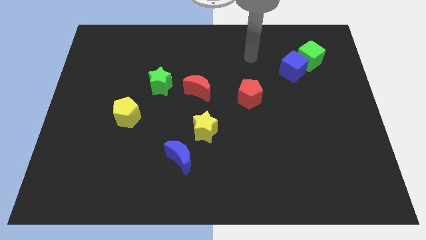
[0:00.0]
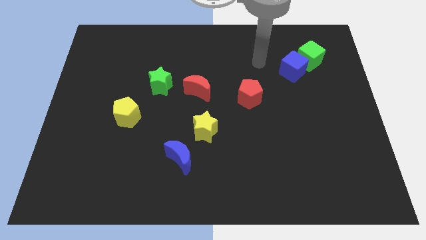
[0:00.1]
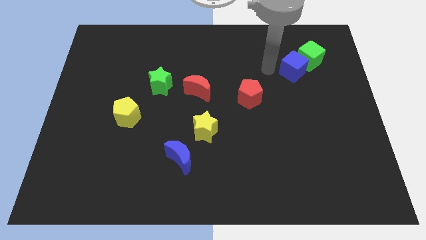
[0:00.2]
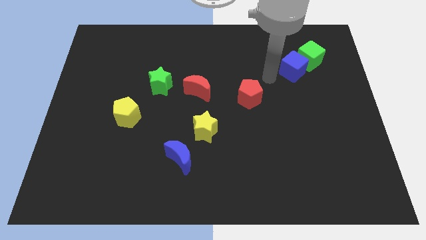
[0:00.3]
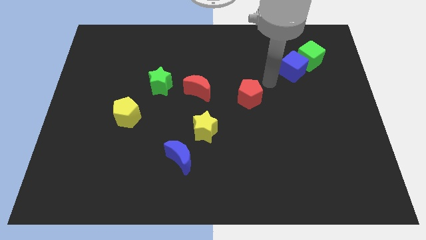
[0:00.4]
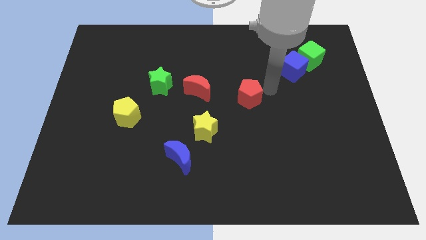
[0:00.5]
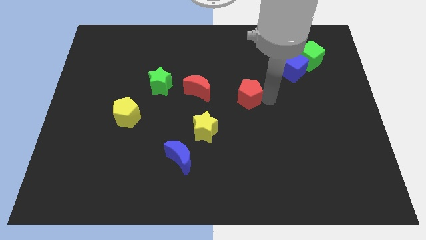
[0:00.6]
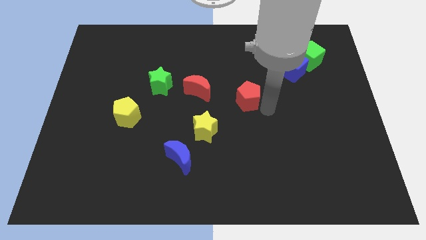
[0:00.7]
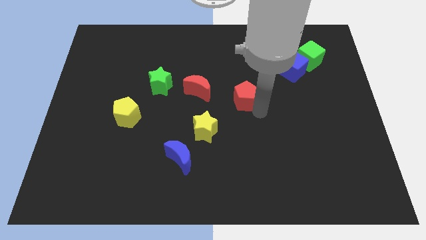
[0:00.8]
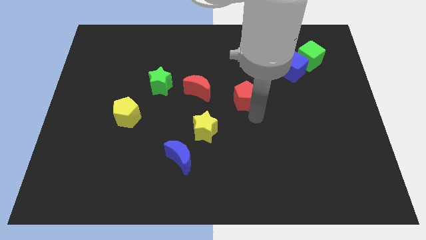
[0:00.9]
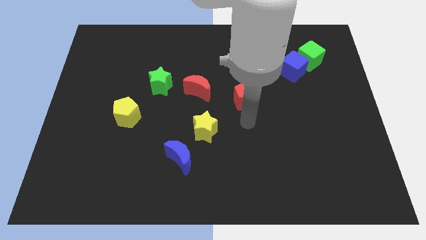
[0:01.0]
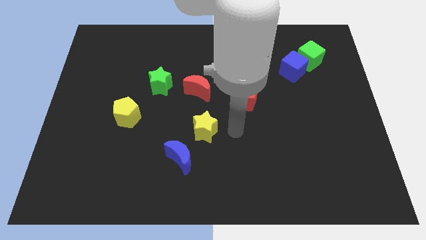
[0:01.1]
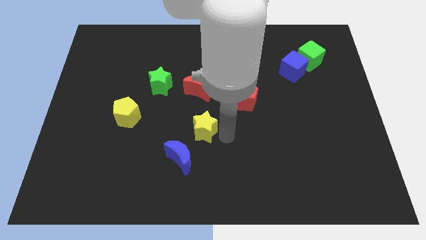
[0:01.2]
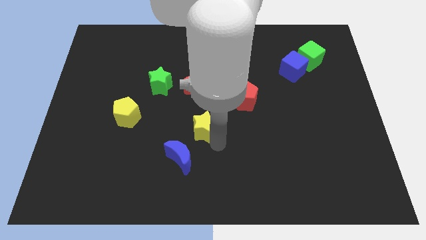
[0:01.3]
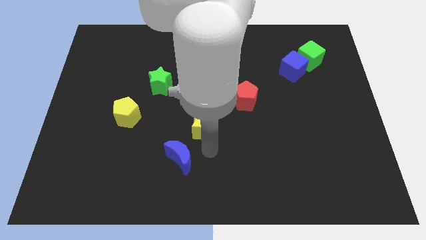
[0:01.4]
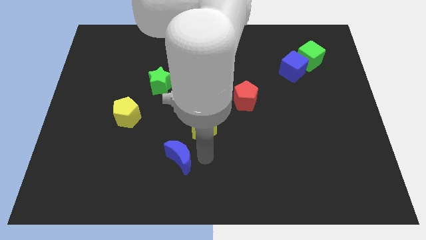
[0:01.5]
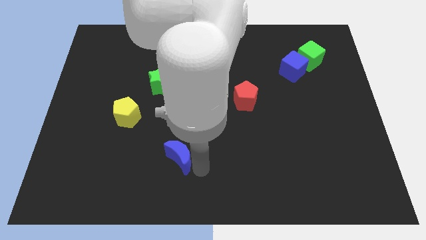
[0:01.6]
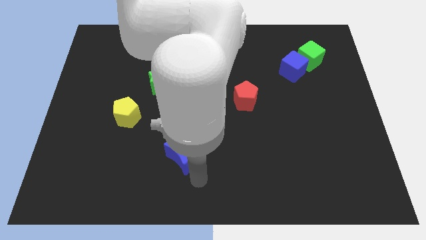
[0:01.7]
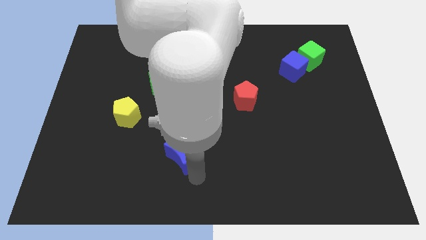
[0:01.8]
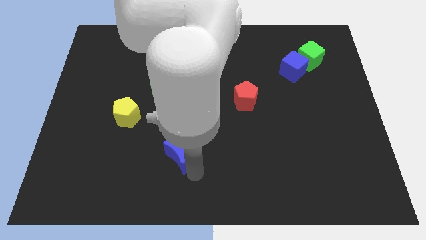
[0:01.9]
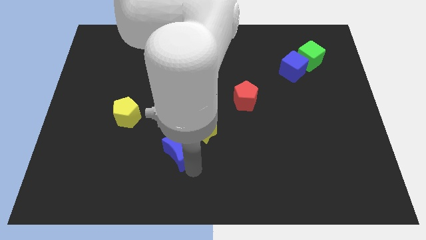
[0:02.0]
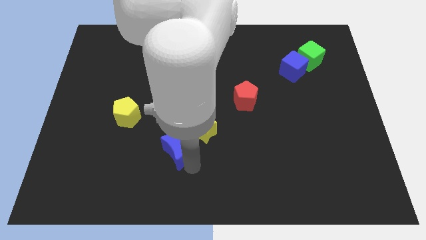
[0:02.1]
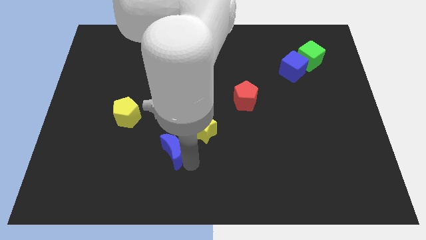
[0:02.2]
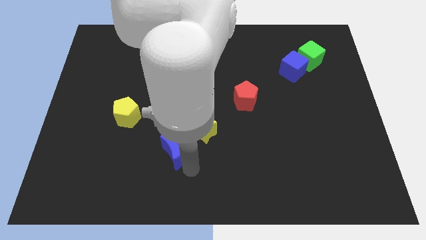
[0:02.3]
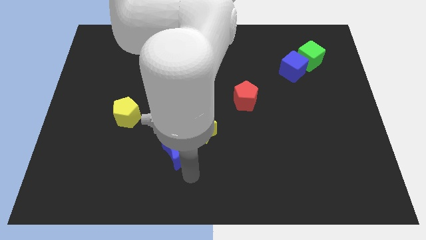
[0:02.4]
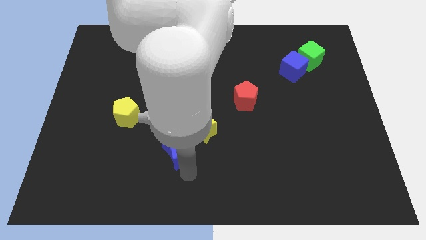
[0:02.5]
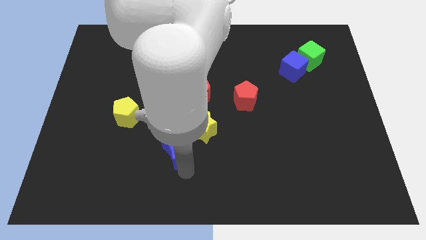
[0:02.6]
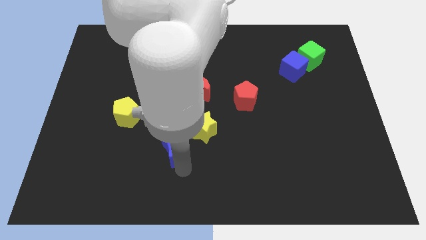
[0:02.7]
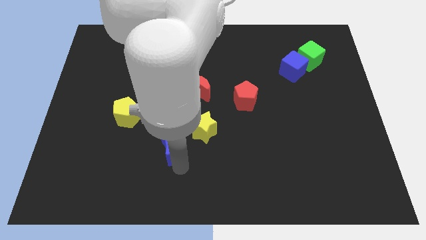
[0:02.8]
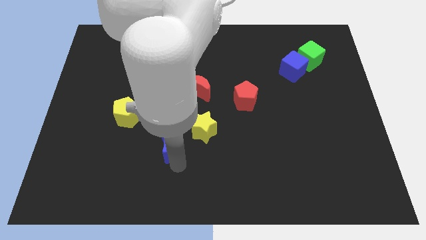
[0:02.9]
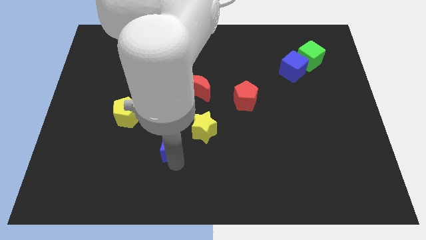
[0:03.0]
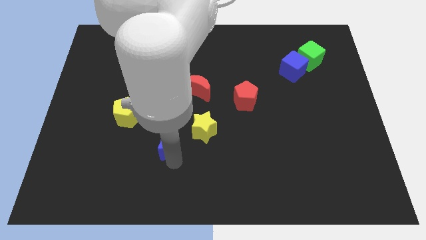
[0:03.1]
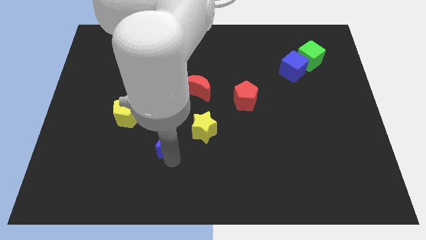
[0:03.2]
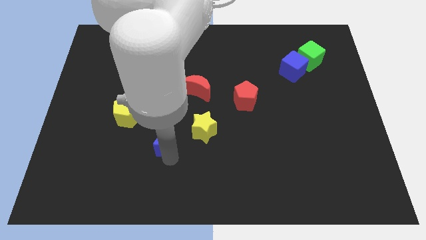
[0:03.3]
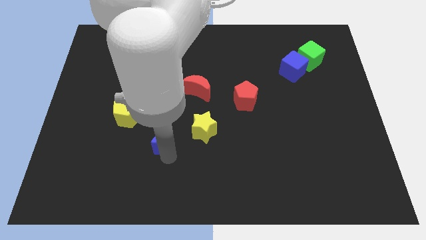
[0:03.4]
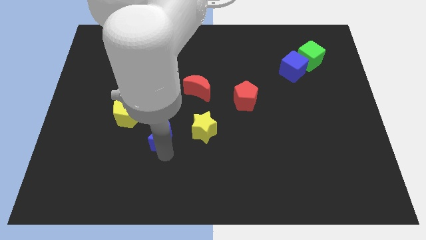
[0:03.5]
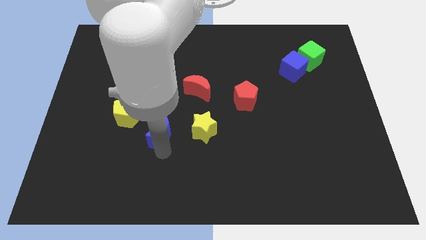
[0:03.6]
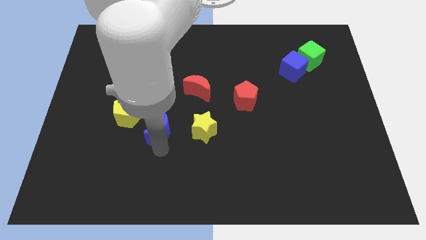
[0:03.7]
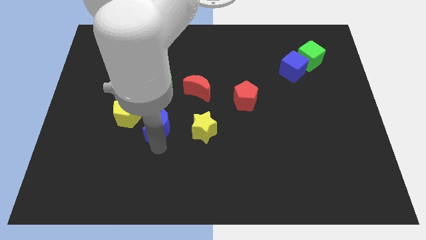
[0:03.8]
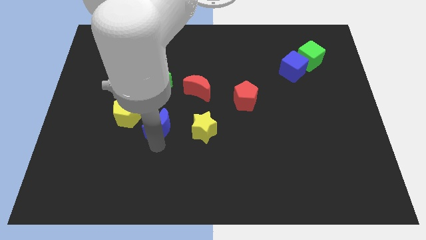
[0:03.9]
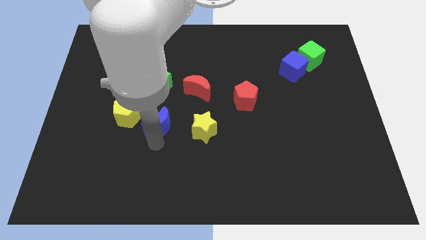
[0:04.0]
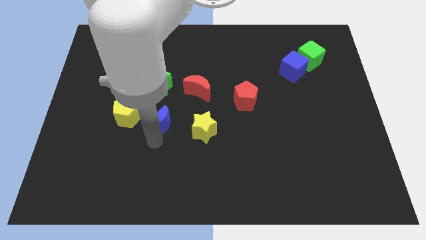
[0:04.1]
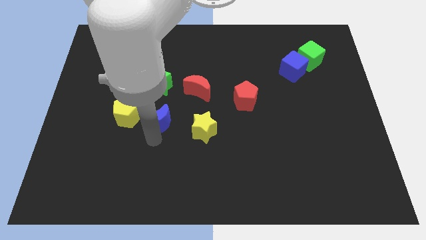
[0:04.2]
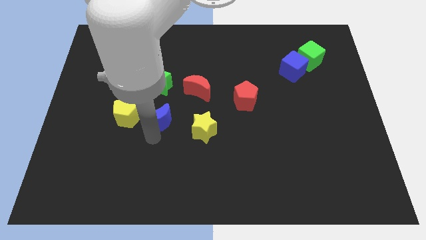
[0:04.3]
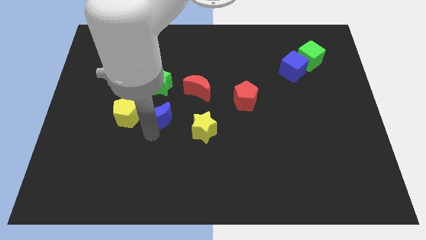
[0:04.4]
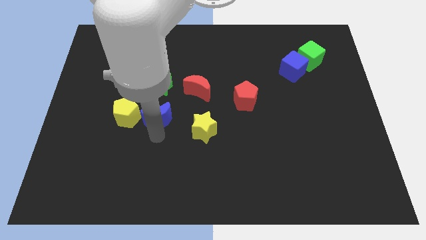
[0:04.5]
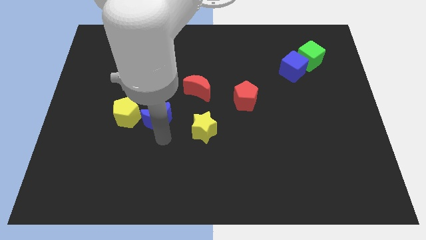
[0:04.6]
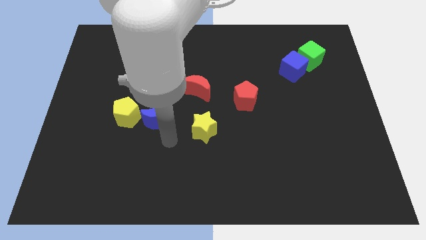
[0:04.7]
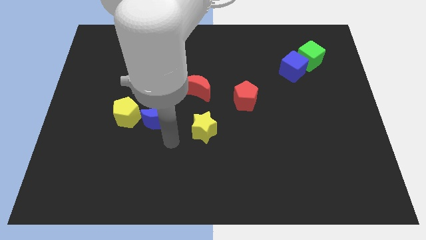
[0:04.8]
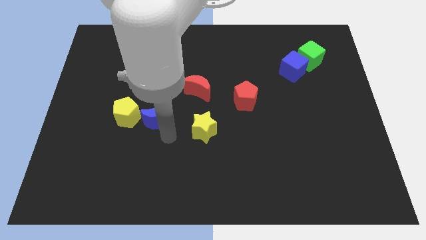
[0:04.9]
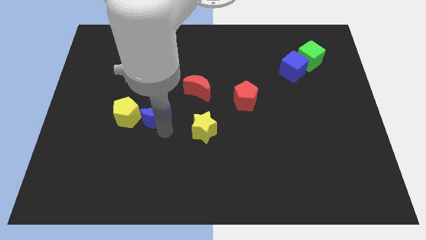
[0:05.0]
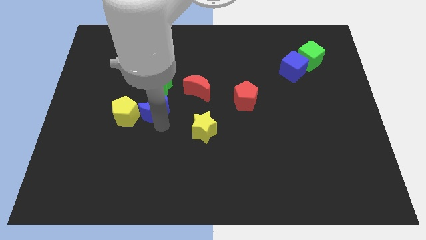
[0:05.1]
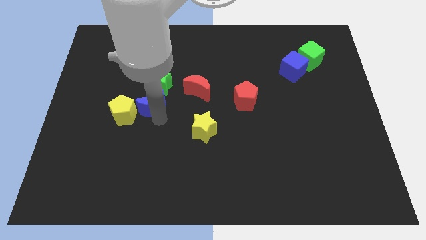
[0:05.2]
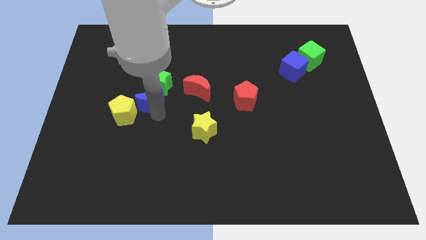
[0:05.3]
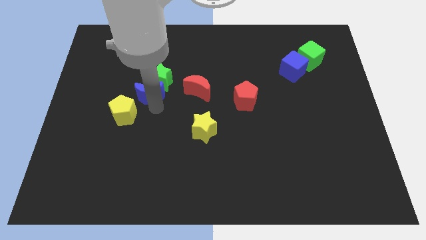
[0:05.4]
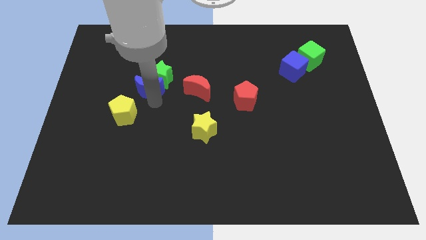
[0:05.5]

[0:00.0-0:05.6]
move the blue moon to the top of the yellow pentagon

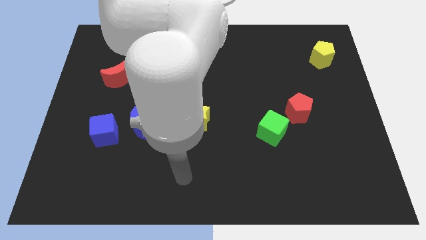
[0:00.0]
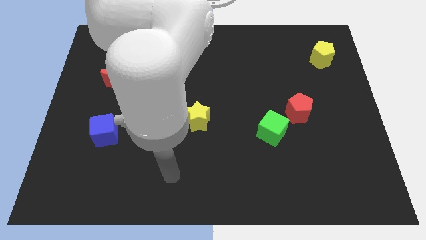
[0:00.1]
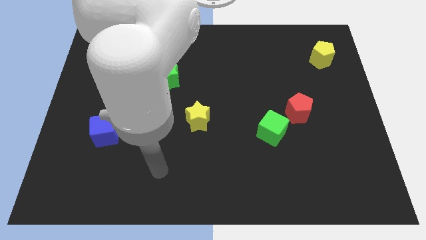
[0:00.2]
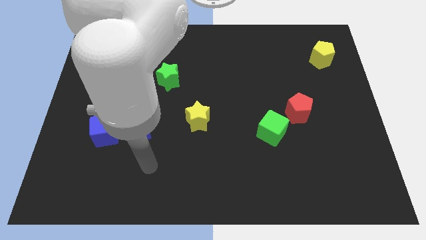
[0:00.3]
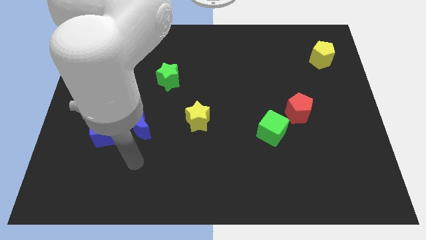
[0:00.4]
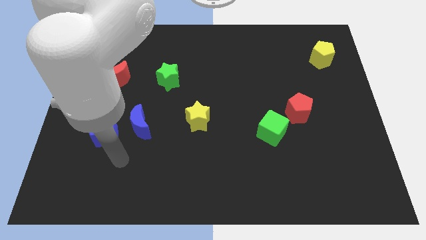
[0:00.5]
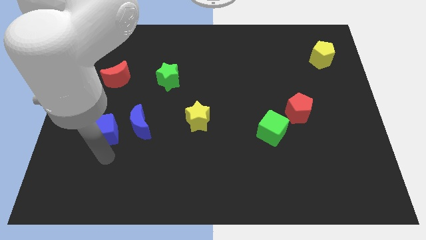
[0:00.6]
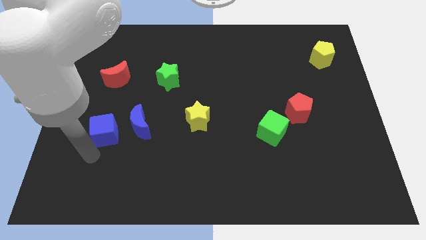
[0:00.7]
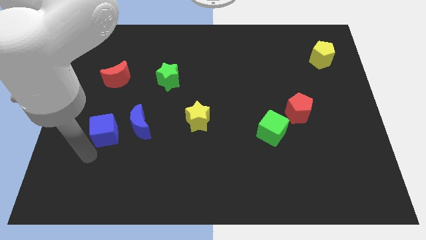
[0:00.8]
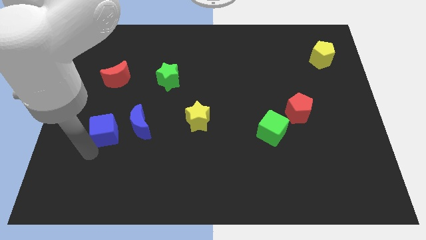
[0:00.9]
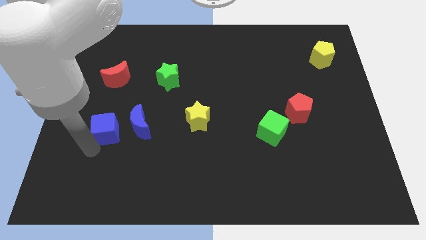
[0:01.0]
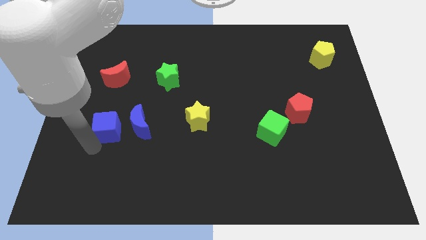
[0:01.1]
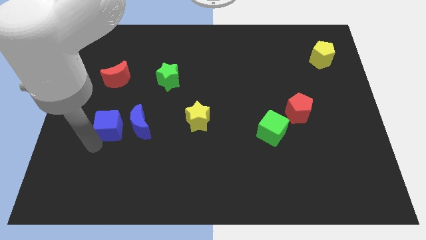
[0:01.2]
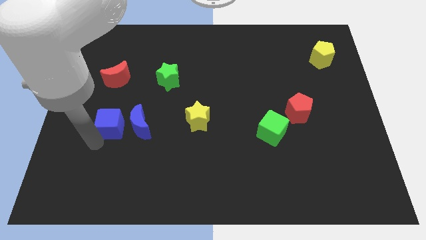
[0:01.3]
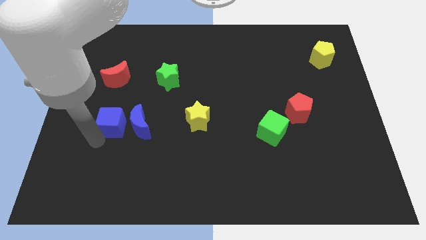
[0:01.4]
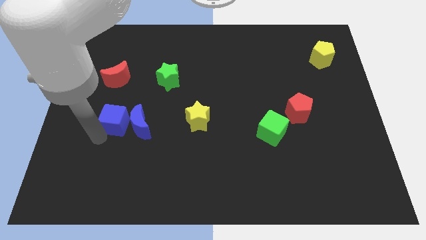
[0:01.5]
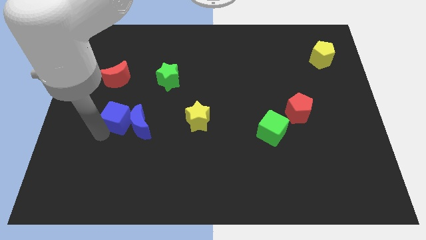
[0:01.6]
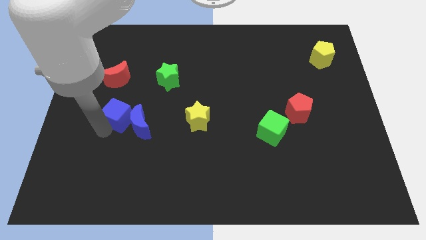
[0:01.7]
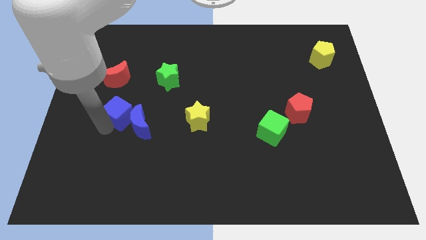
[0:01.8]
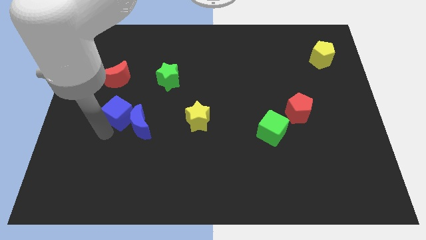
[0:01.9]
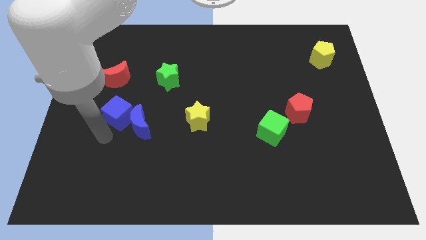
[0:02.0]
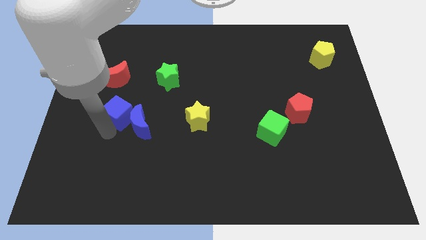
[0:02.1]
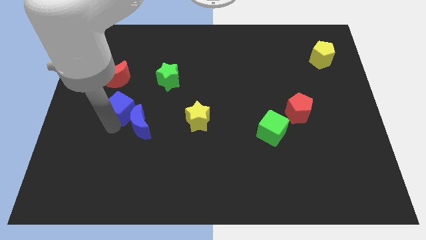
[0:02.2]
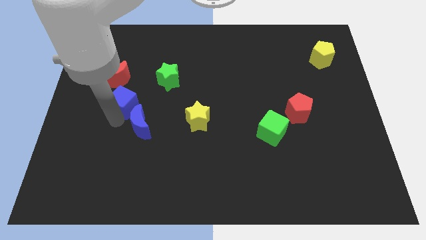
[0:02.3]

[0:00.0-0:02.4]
push the blue cube to the bottom right side of the red moon
